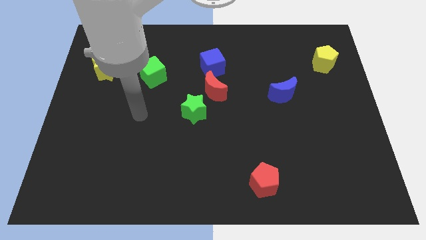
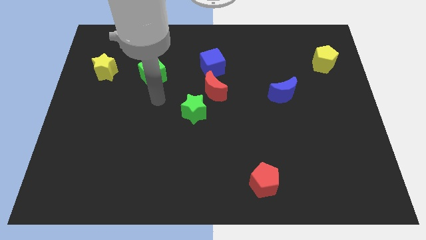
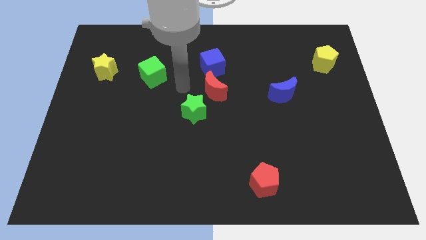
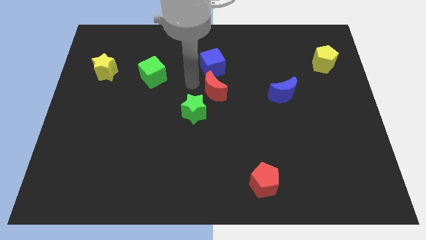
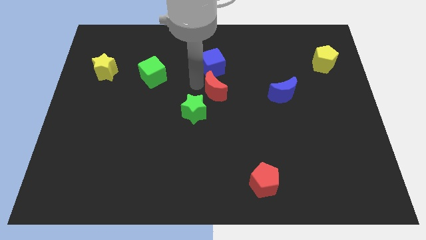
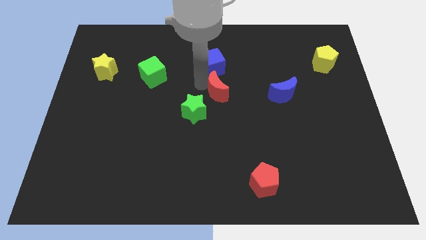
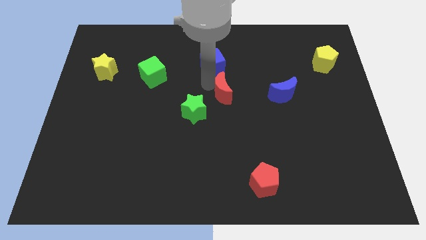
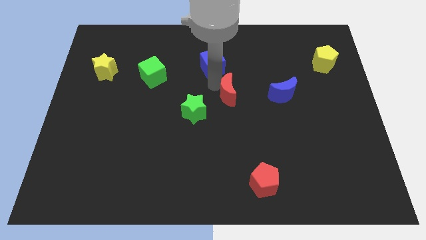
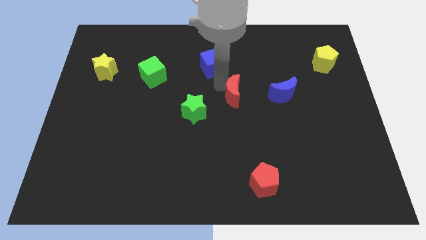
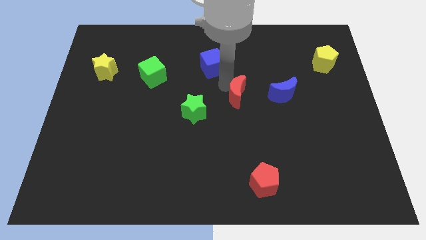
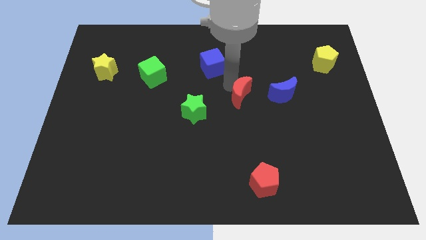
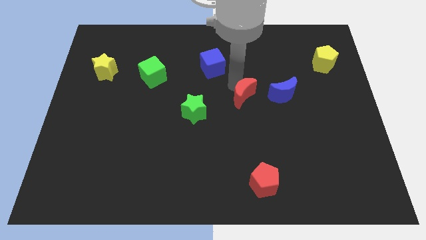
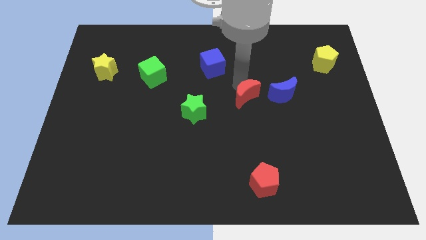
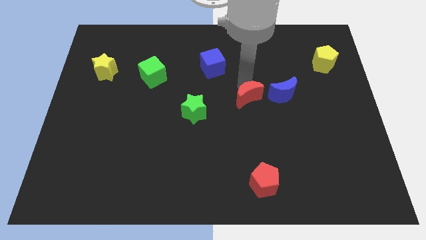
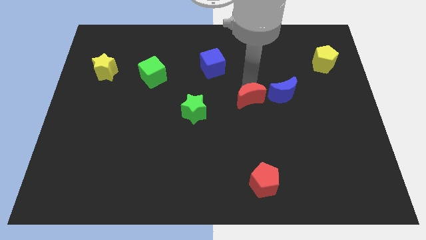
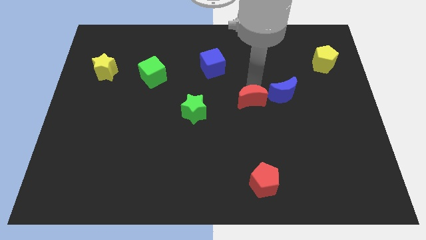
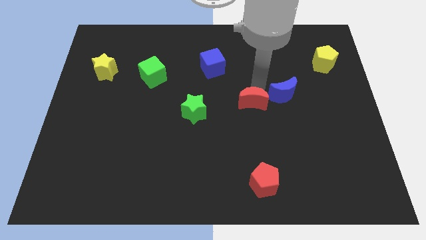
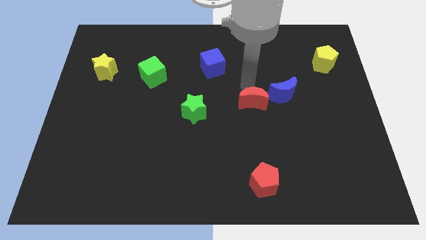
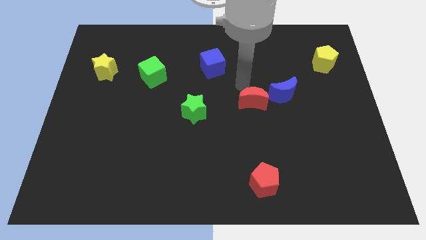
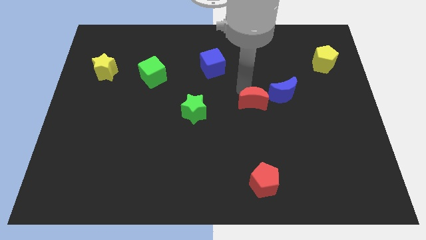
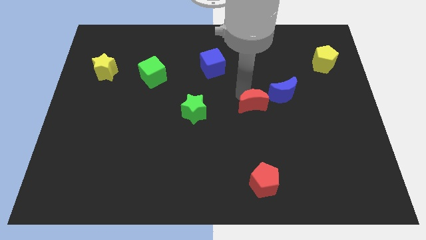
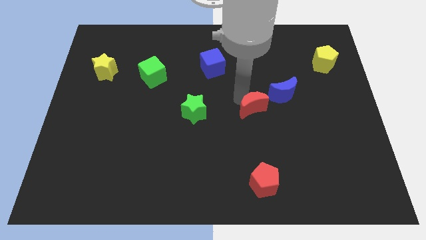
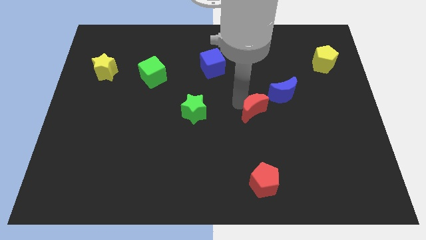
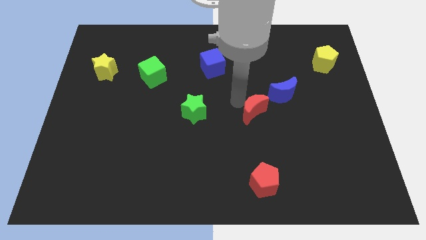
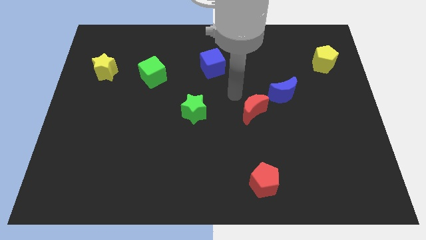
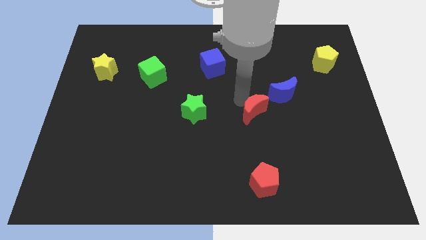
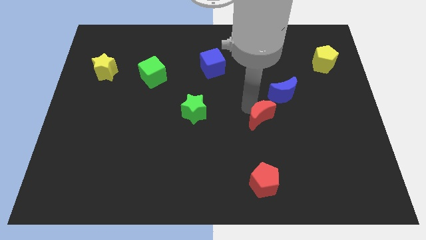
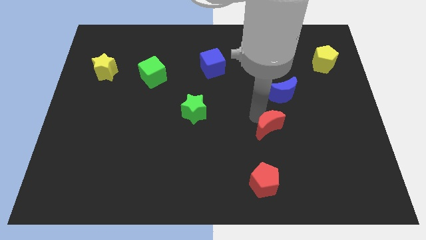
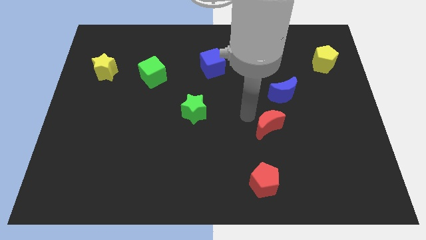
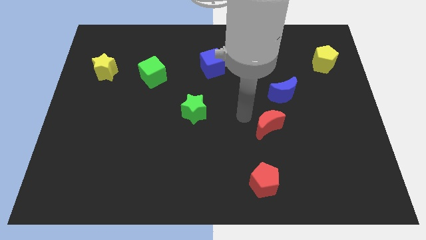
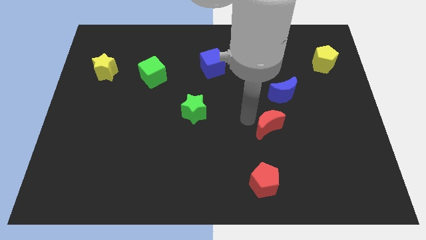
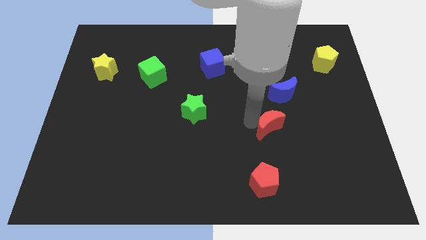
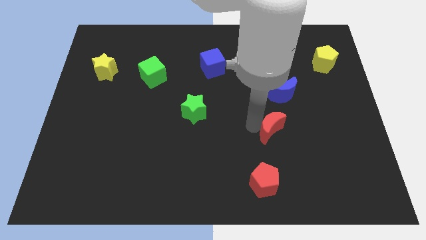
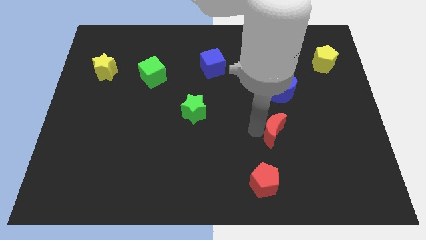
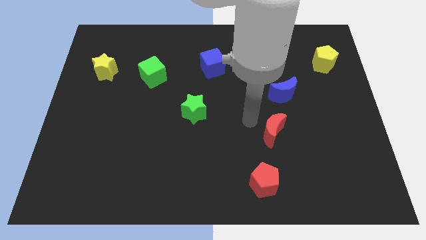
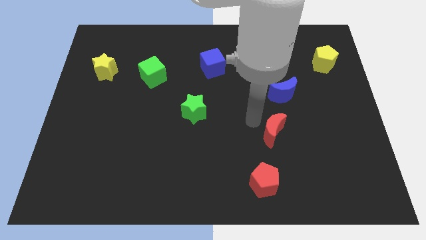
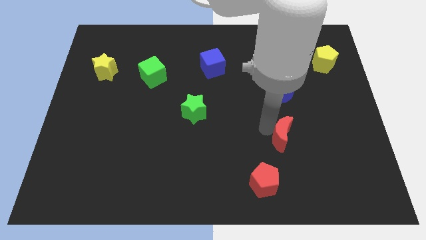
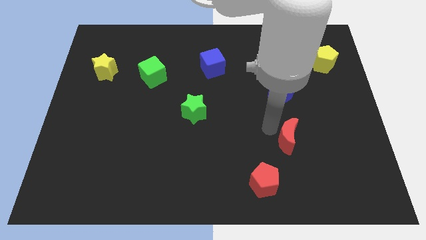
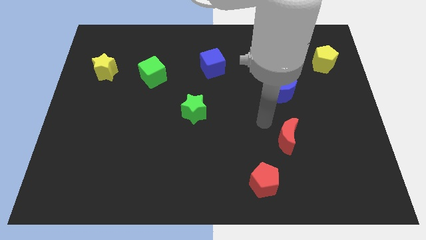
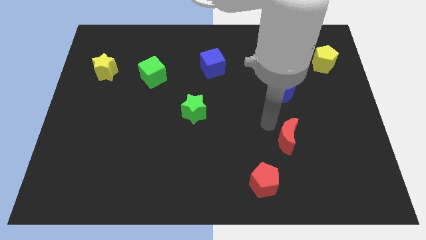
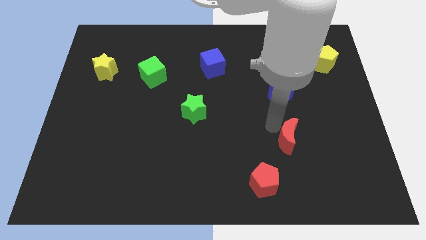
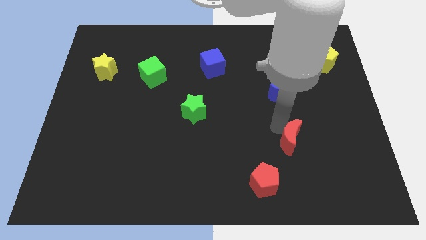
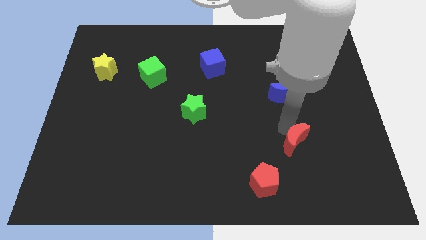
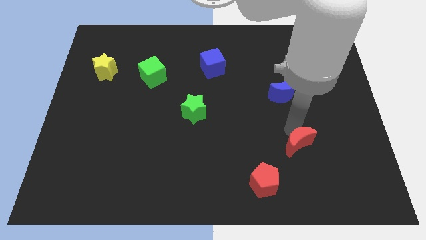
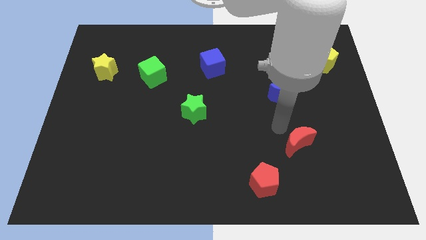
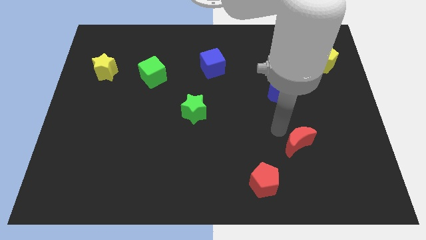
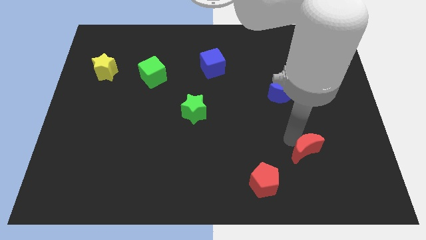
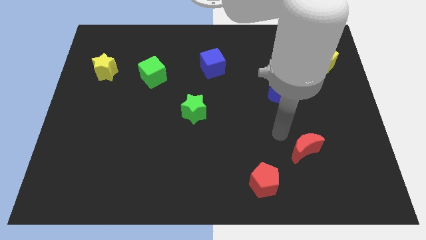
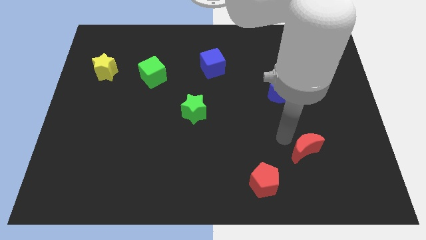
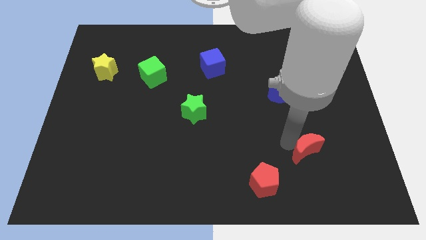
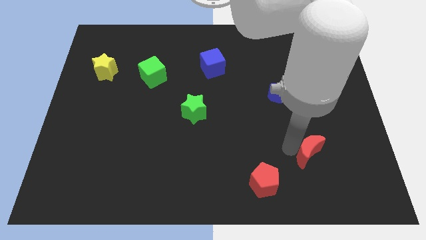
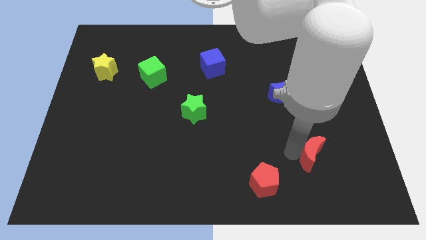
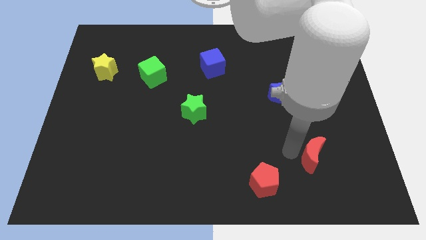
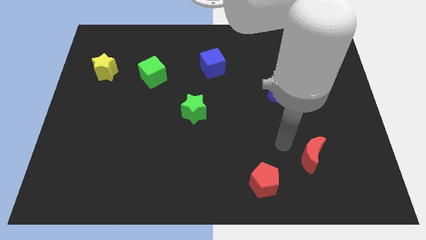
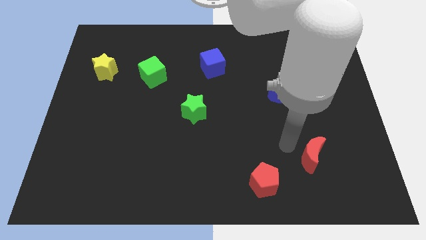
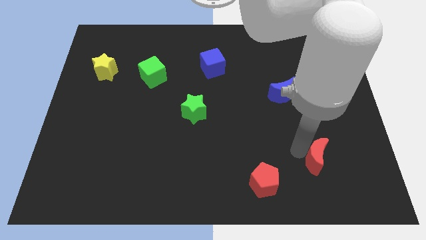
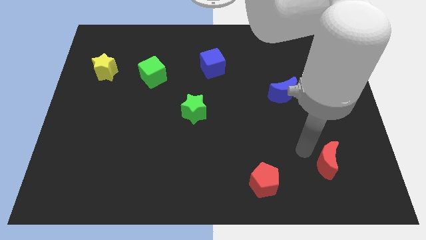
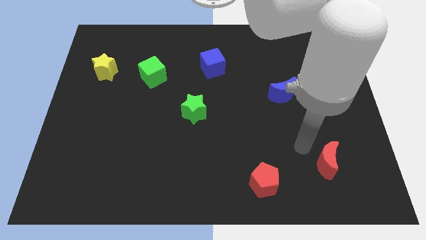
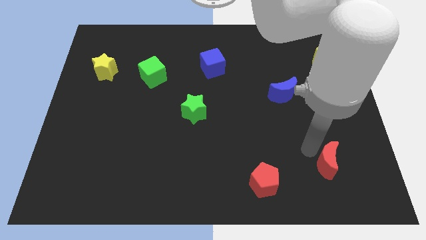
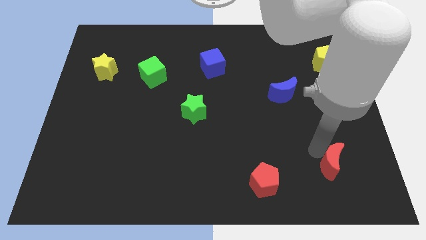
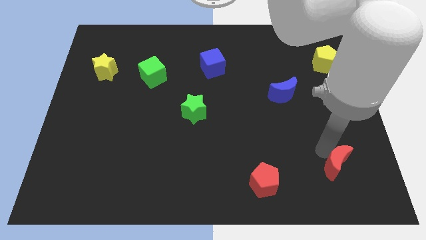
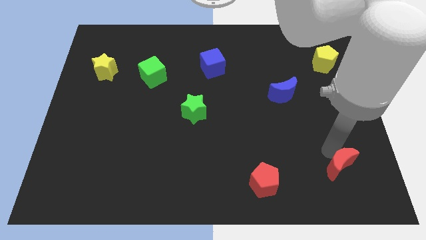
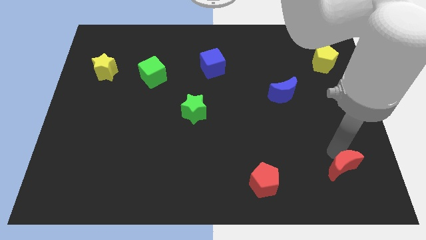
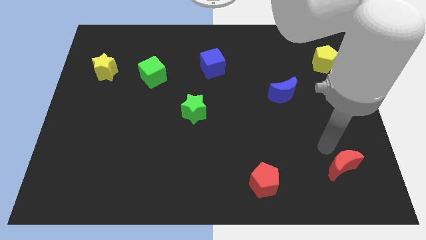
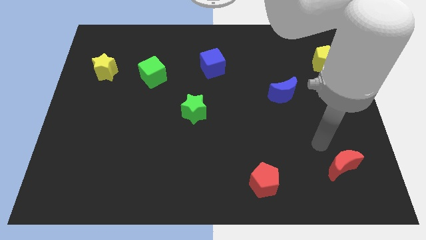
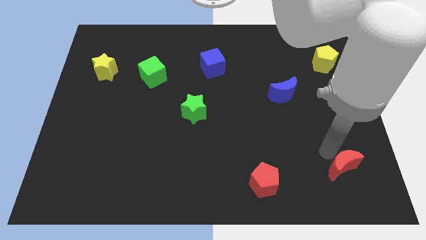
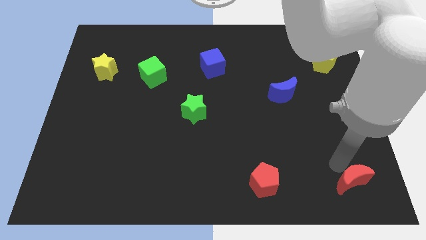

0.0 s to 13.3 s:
put the red moon to the bottom right
